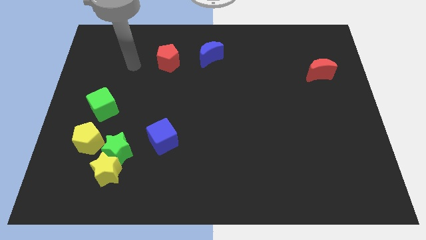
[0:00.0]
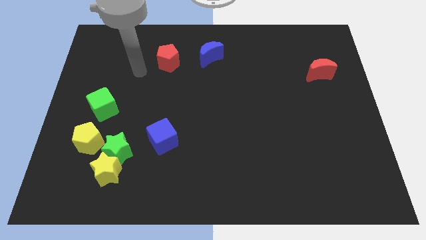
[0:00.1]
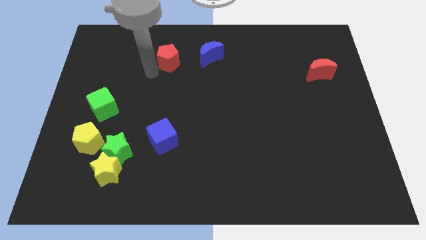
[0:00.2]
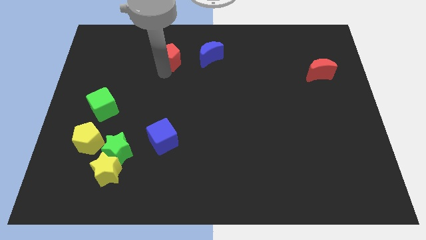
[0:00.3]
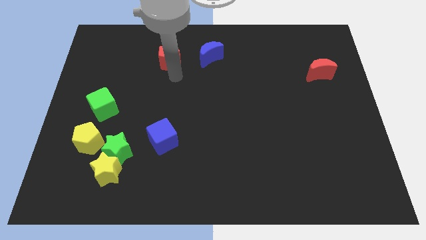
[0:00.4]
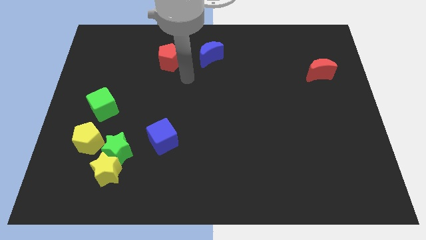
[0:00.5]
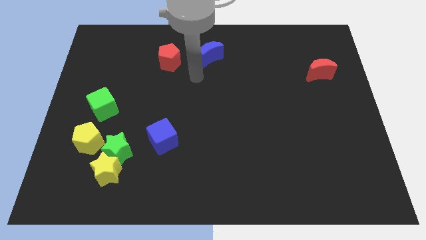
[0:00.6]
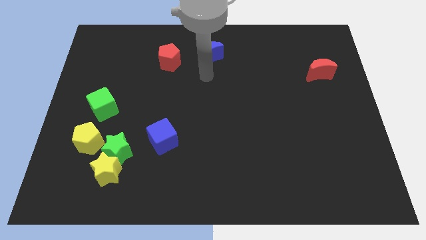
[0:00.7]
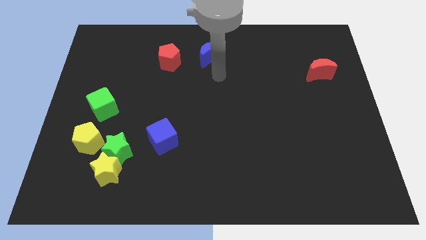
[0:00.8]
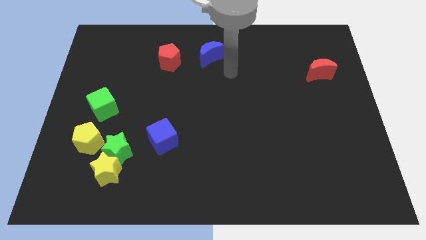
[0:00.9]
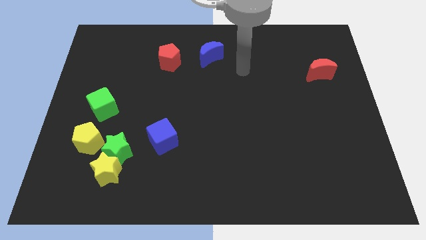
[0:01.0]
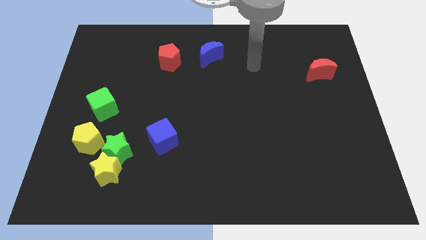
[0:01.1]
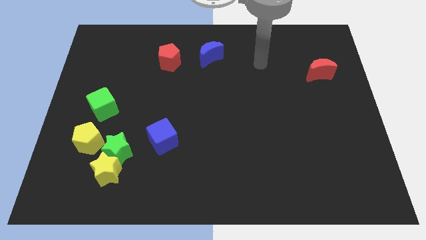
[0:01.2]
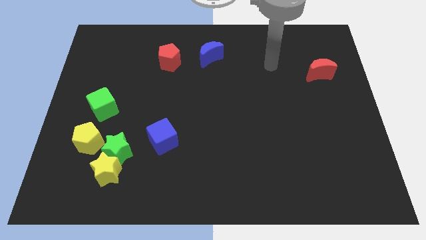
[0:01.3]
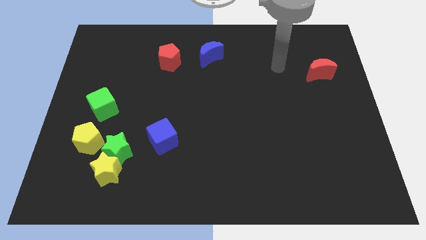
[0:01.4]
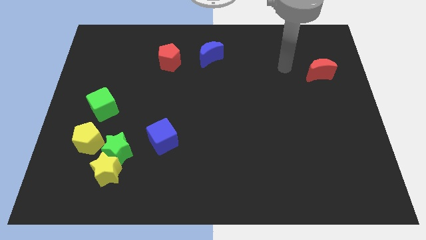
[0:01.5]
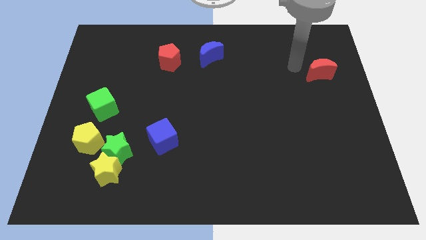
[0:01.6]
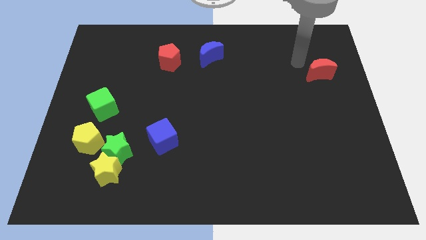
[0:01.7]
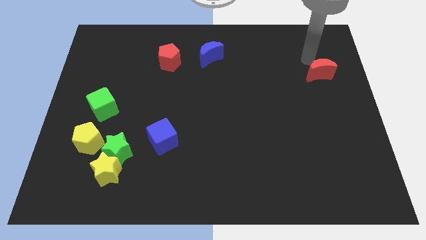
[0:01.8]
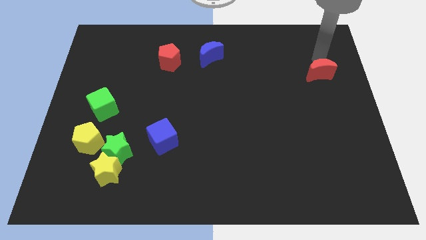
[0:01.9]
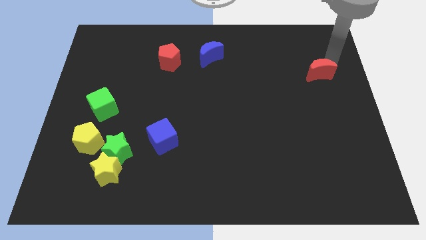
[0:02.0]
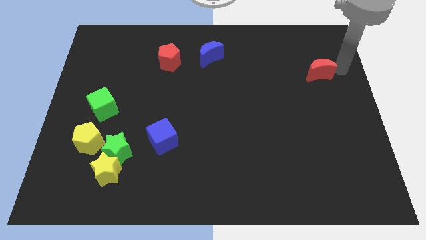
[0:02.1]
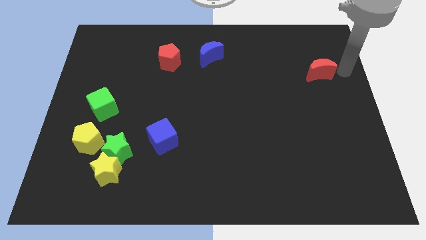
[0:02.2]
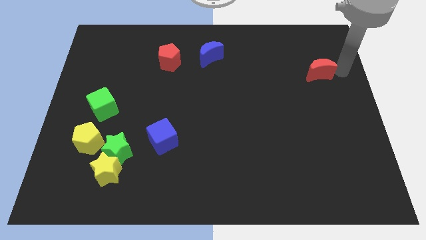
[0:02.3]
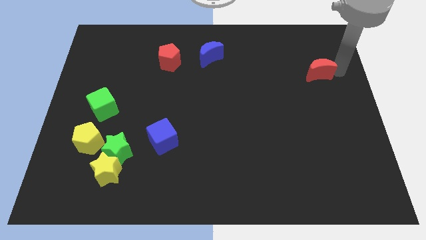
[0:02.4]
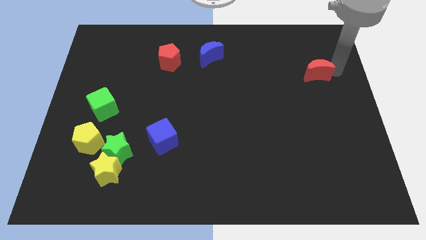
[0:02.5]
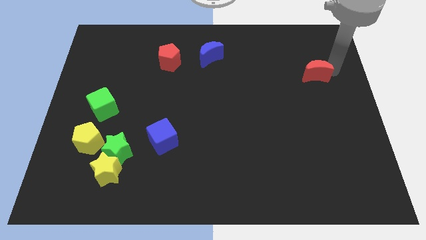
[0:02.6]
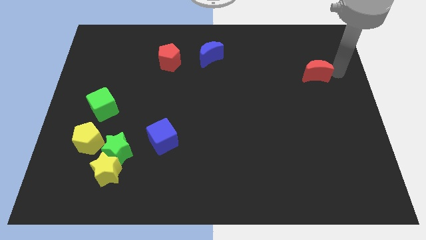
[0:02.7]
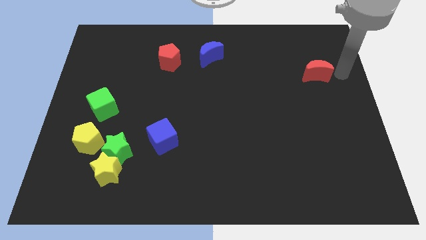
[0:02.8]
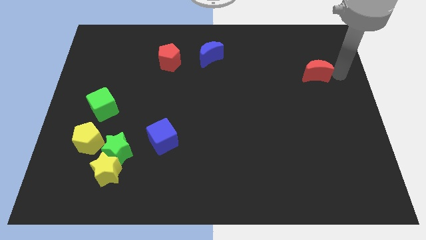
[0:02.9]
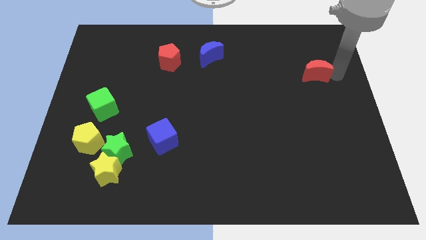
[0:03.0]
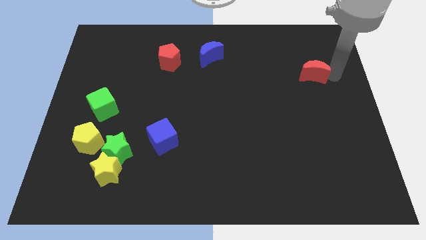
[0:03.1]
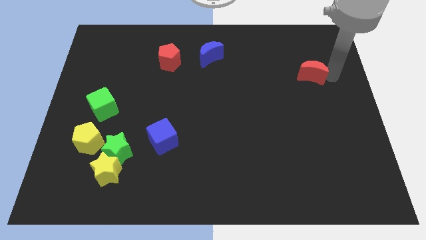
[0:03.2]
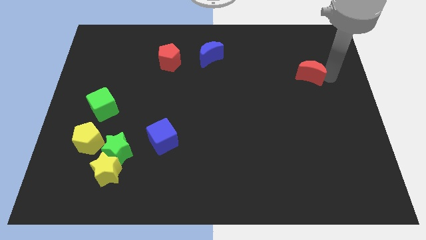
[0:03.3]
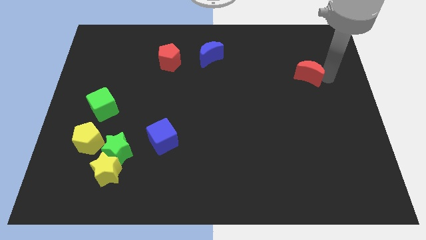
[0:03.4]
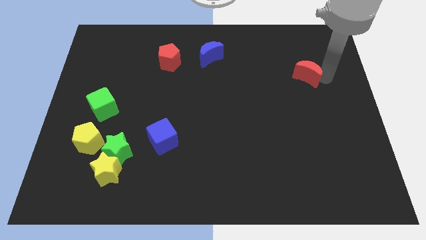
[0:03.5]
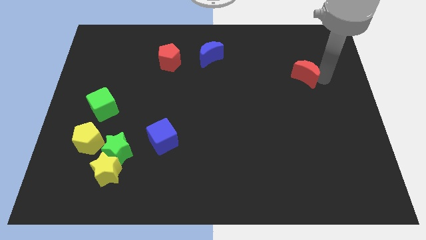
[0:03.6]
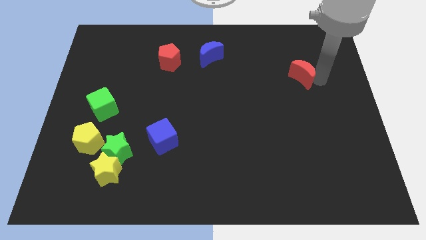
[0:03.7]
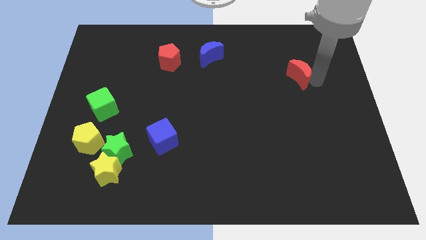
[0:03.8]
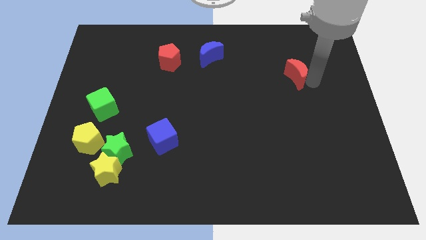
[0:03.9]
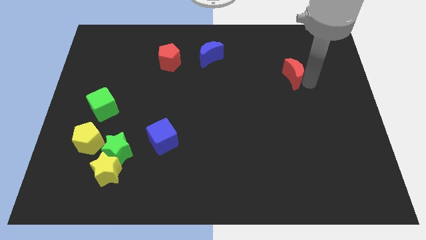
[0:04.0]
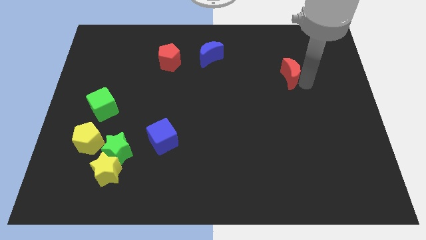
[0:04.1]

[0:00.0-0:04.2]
push the red moon a bit left

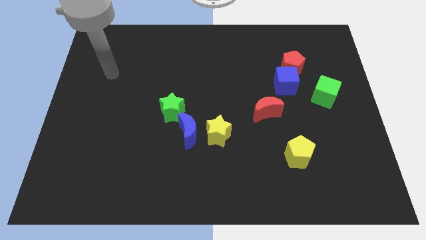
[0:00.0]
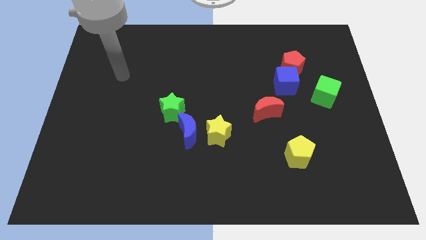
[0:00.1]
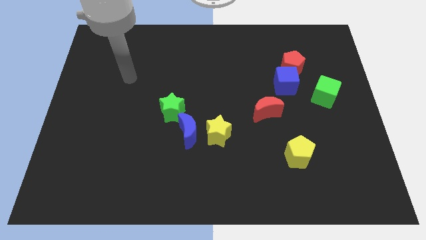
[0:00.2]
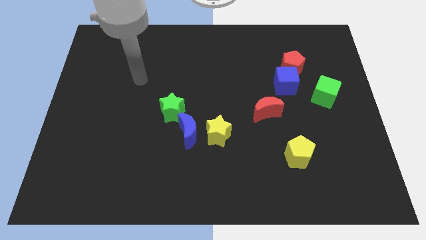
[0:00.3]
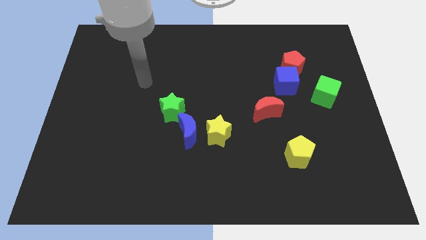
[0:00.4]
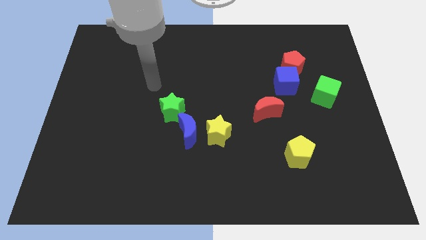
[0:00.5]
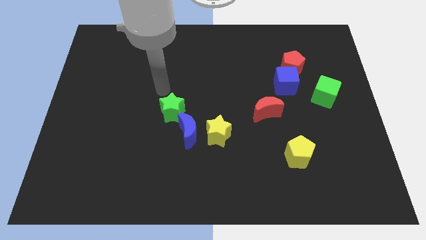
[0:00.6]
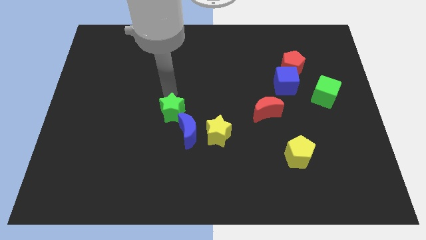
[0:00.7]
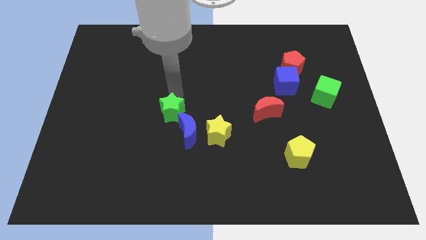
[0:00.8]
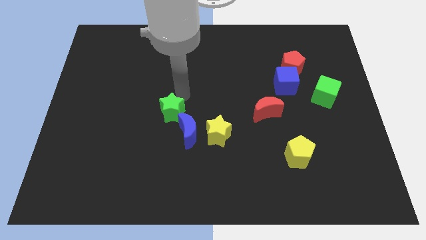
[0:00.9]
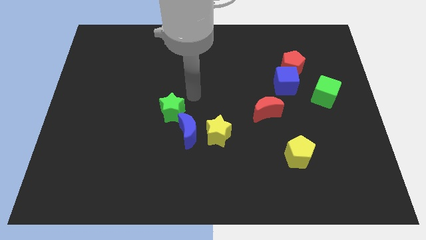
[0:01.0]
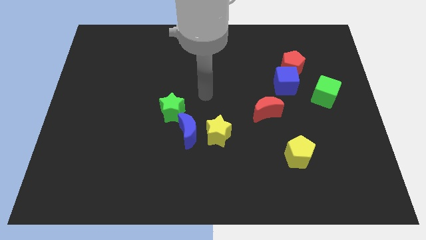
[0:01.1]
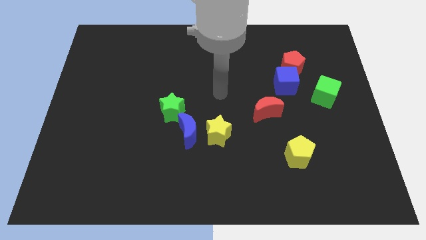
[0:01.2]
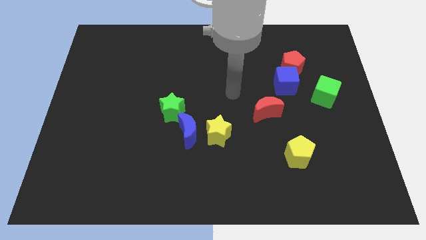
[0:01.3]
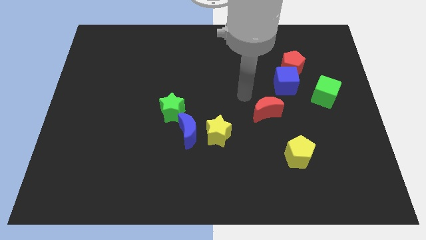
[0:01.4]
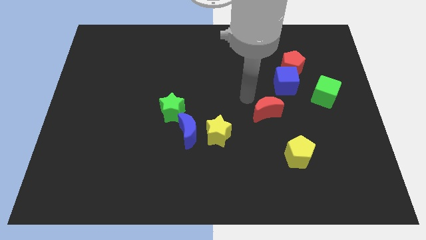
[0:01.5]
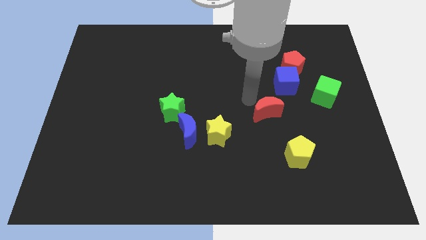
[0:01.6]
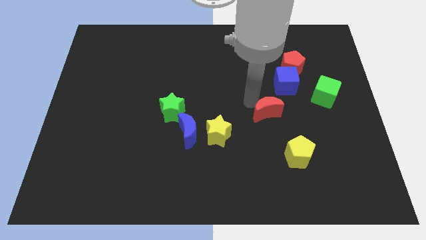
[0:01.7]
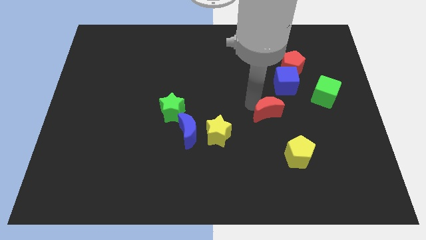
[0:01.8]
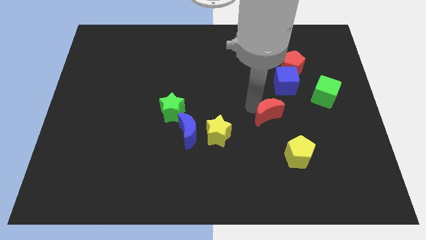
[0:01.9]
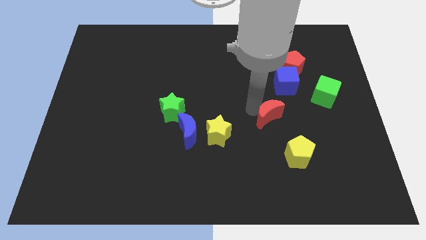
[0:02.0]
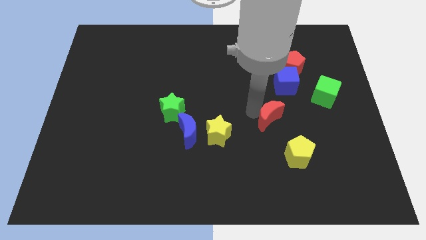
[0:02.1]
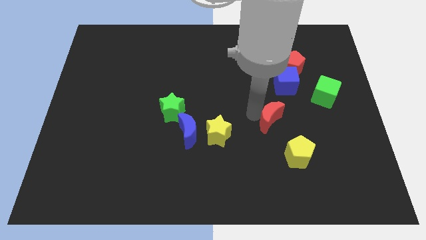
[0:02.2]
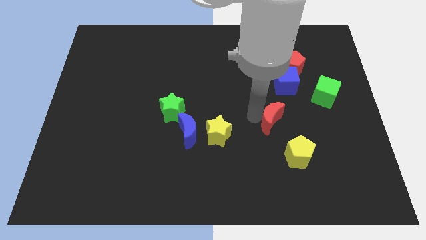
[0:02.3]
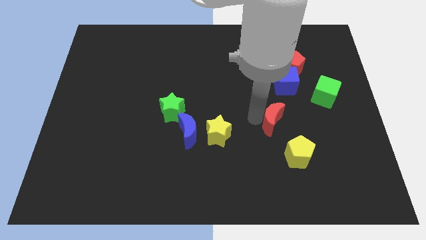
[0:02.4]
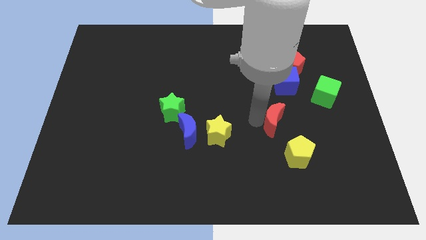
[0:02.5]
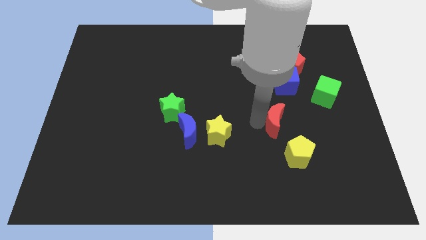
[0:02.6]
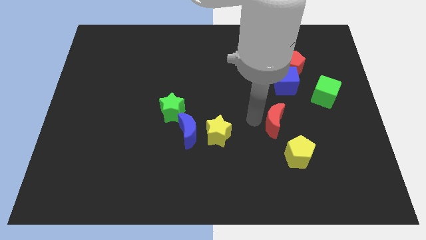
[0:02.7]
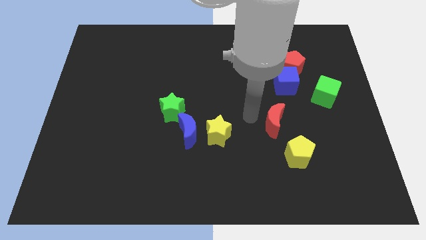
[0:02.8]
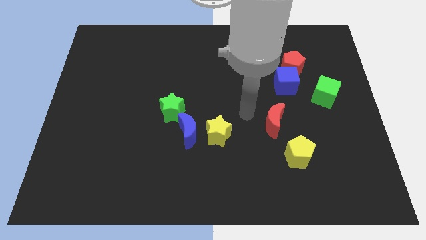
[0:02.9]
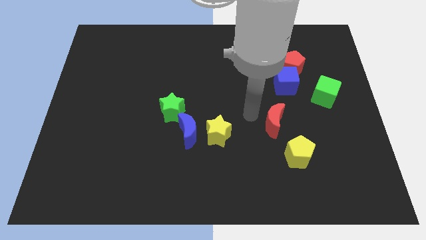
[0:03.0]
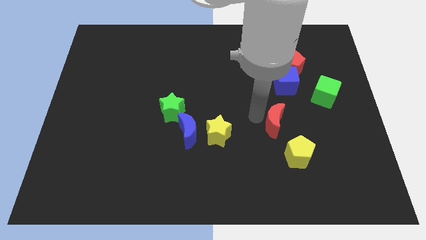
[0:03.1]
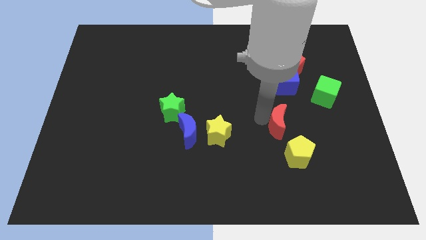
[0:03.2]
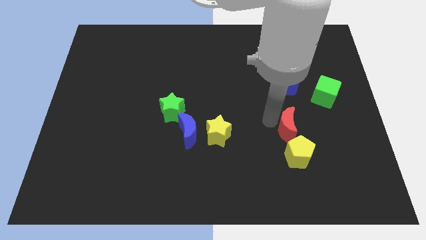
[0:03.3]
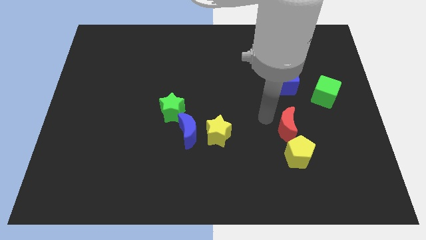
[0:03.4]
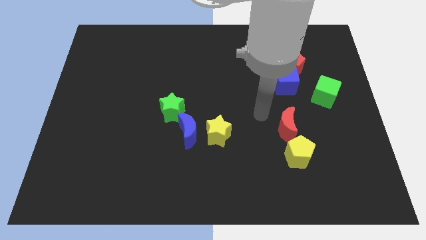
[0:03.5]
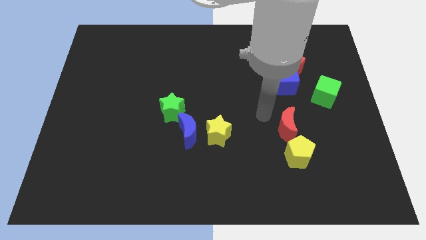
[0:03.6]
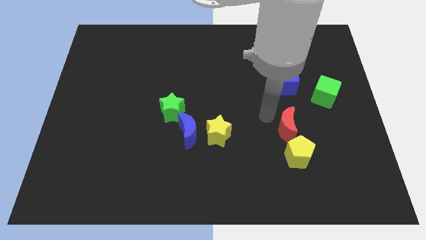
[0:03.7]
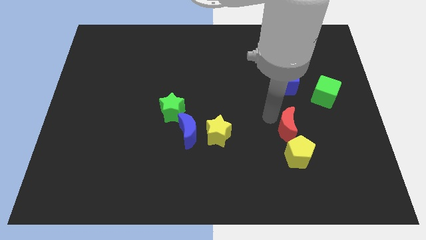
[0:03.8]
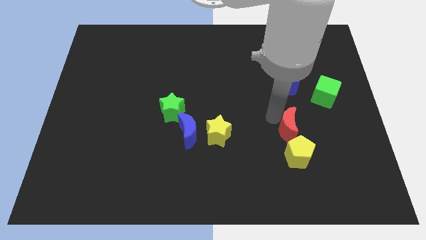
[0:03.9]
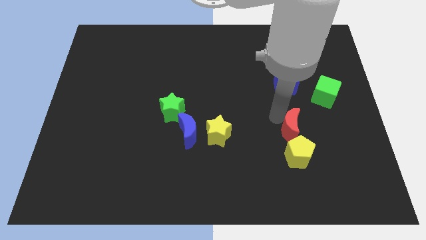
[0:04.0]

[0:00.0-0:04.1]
push the red moon somewhat down and then to the right
